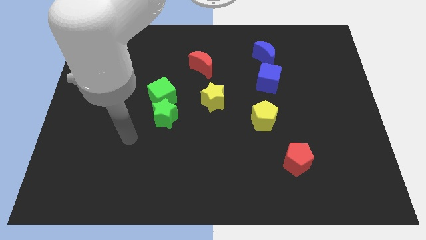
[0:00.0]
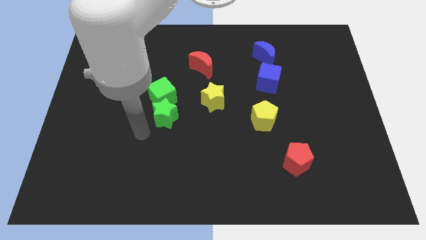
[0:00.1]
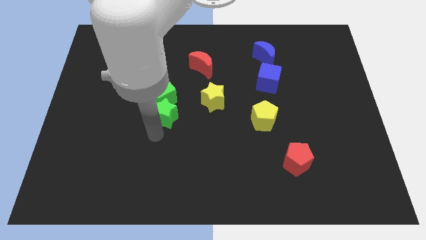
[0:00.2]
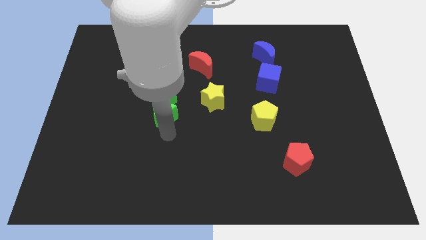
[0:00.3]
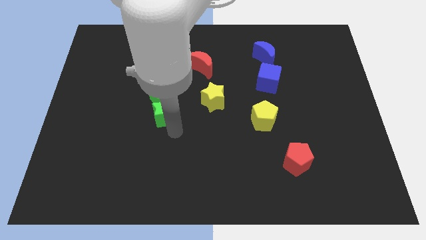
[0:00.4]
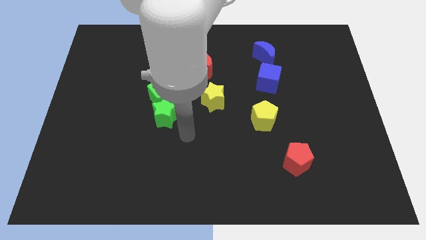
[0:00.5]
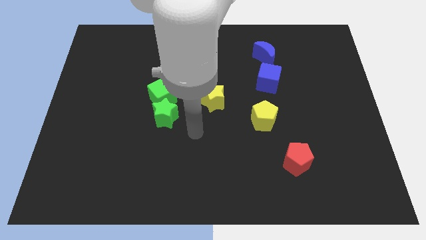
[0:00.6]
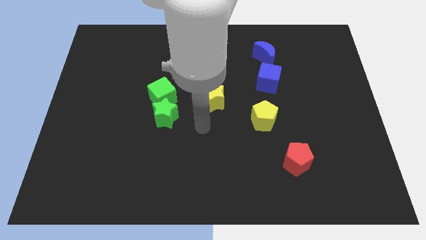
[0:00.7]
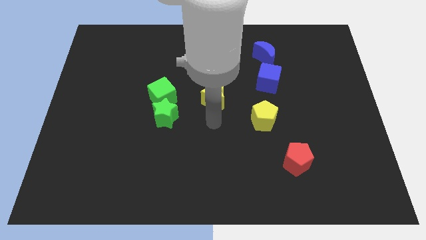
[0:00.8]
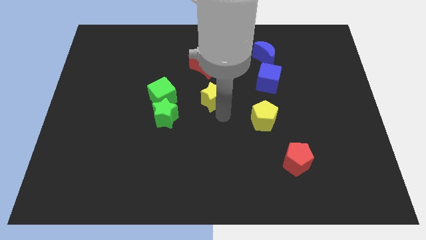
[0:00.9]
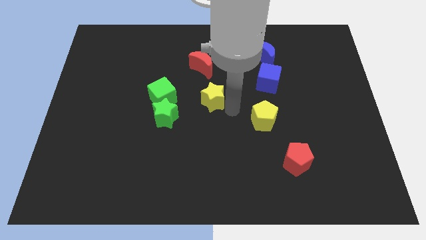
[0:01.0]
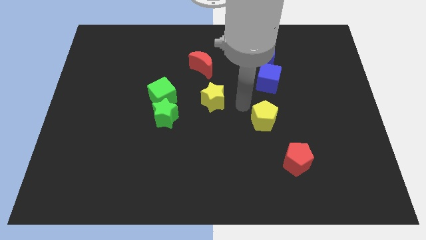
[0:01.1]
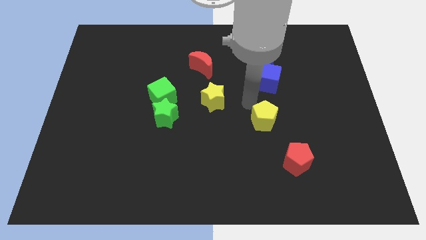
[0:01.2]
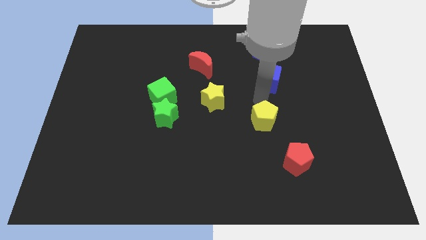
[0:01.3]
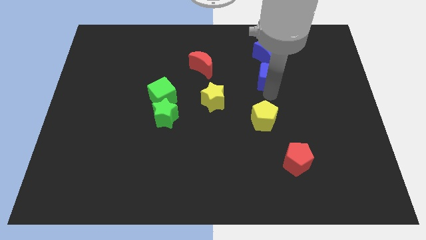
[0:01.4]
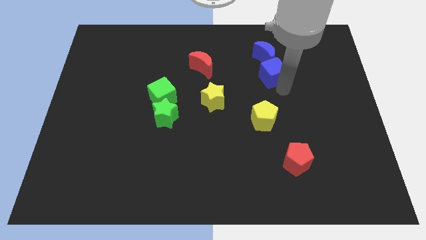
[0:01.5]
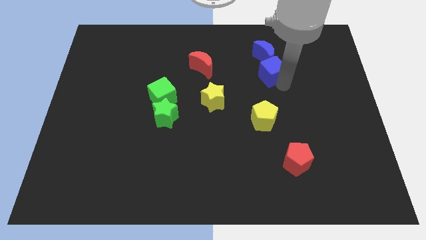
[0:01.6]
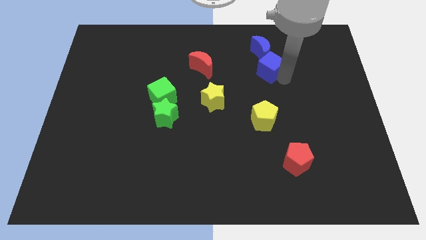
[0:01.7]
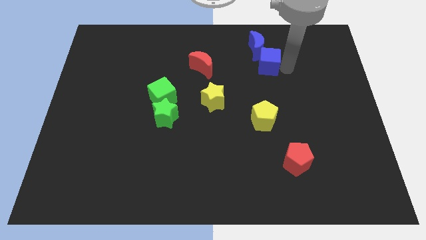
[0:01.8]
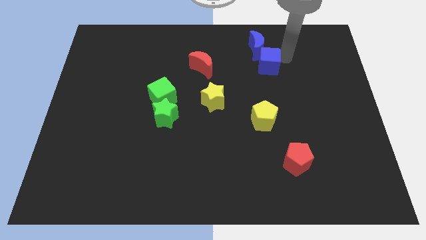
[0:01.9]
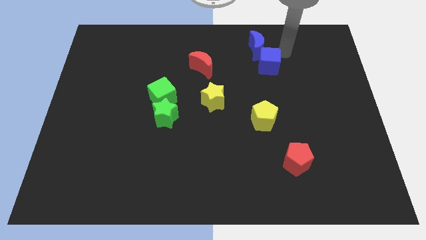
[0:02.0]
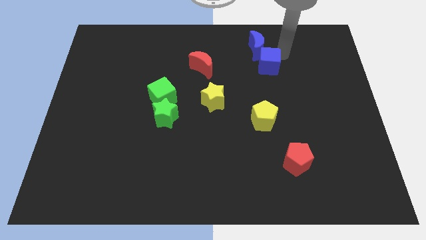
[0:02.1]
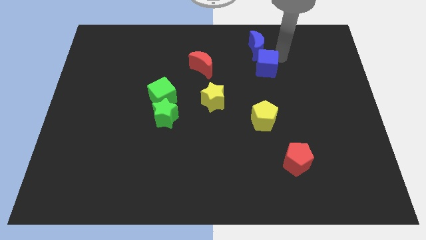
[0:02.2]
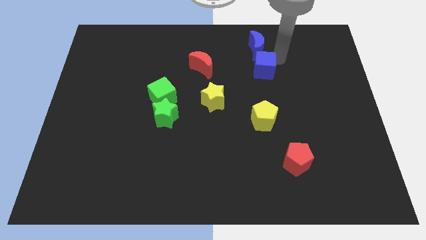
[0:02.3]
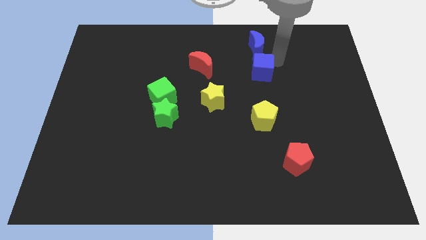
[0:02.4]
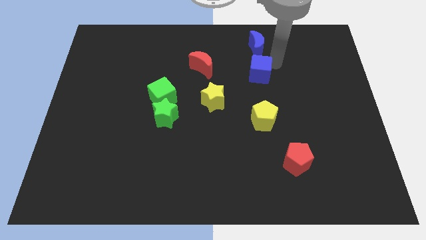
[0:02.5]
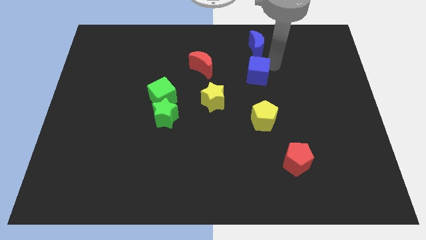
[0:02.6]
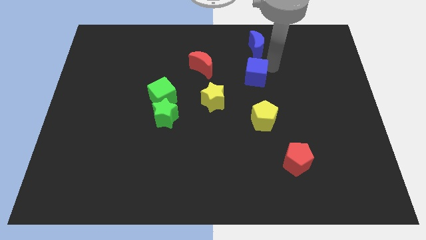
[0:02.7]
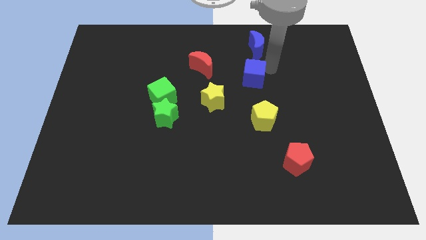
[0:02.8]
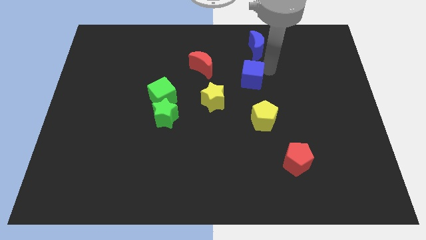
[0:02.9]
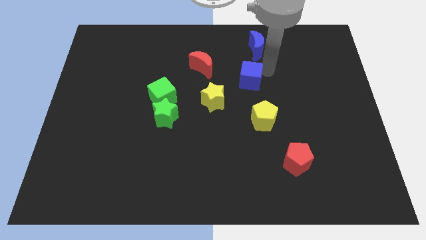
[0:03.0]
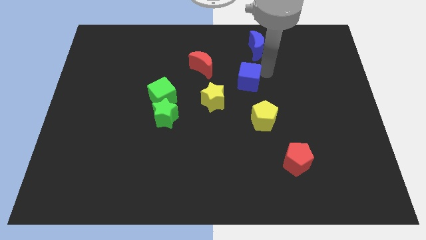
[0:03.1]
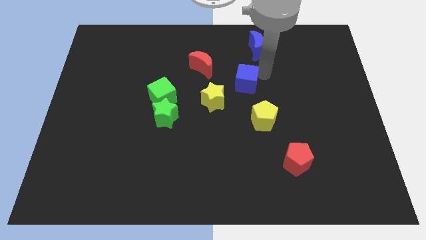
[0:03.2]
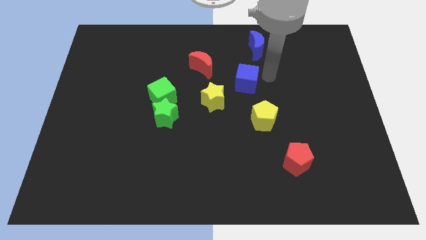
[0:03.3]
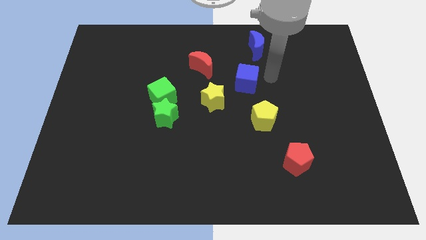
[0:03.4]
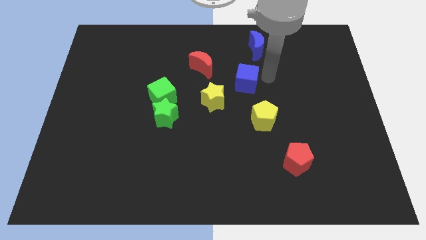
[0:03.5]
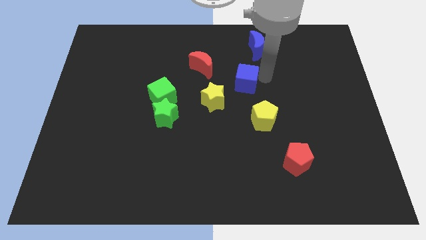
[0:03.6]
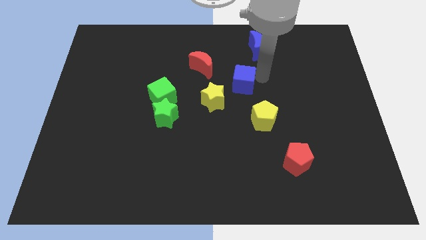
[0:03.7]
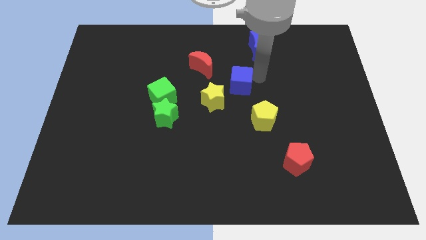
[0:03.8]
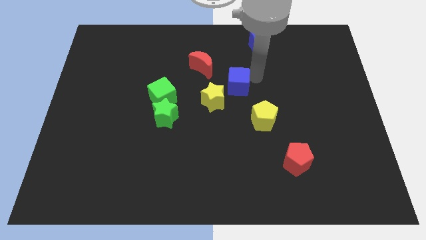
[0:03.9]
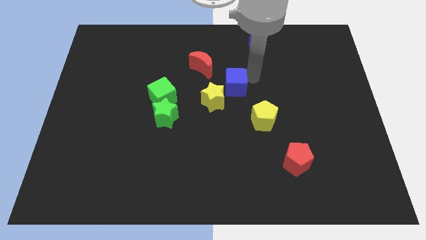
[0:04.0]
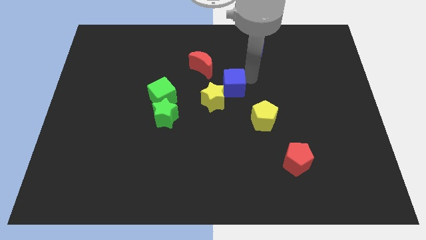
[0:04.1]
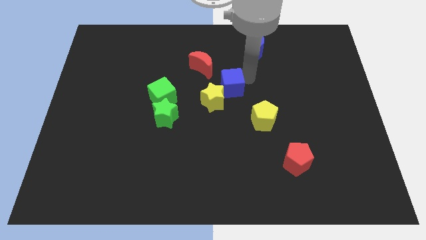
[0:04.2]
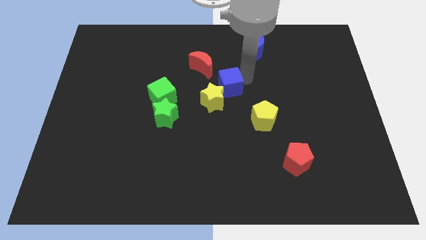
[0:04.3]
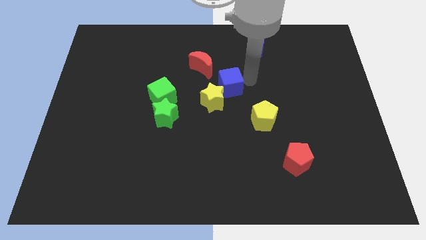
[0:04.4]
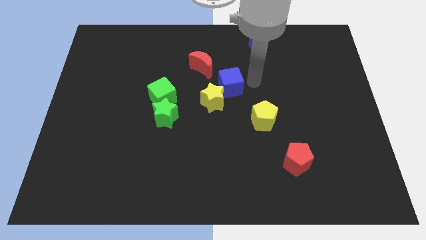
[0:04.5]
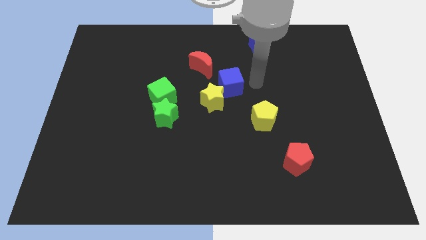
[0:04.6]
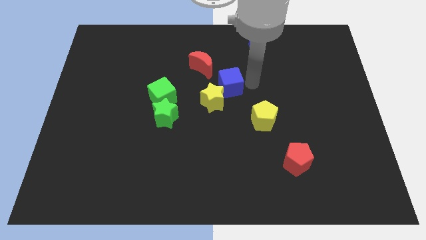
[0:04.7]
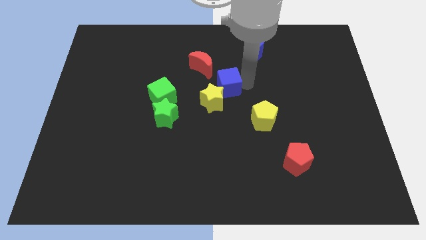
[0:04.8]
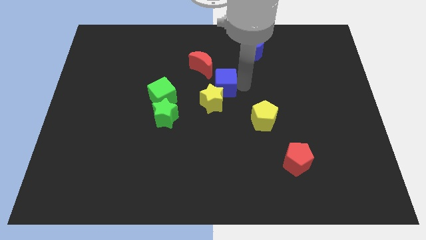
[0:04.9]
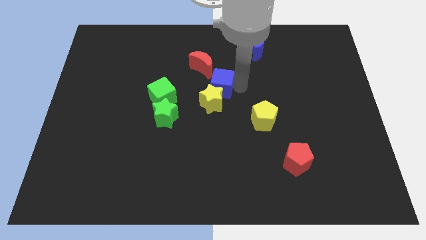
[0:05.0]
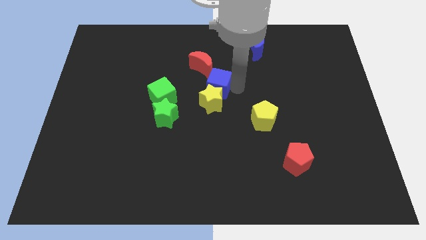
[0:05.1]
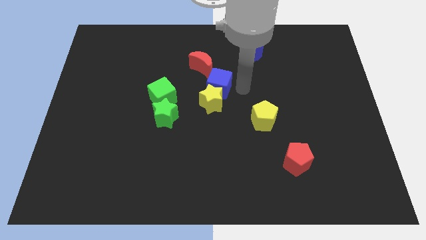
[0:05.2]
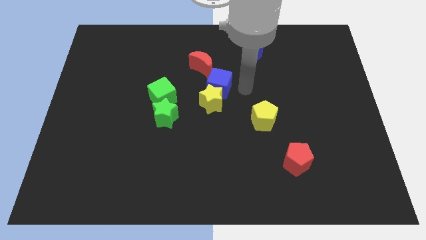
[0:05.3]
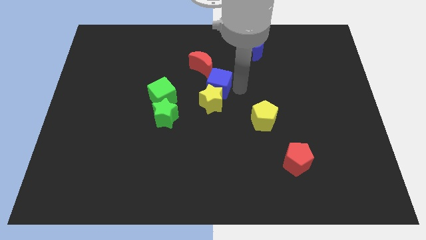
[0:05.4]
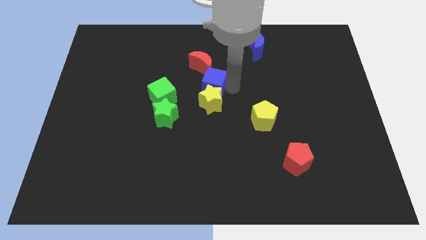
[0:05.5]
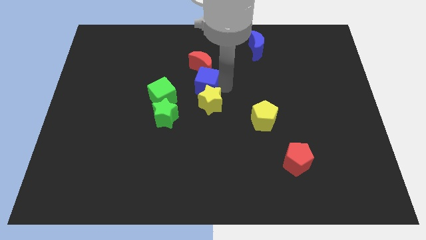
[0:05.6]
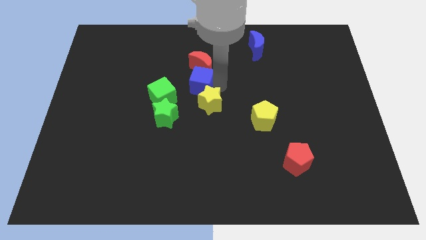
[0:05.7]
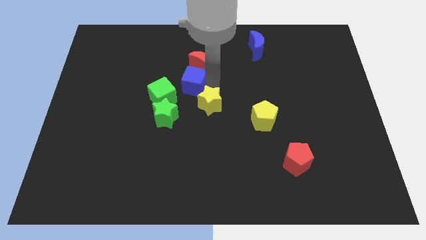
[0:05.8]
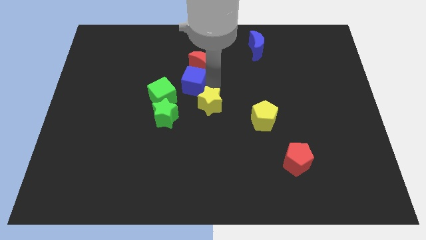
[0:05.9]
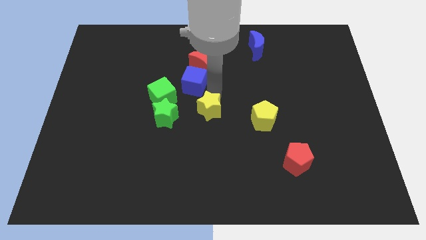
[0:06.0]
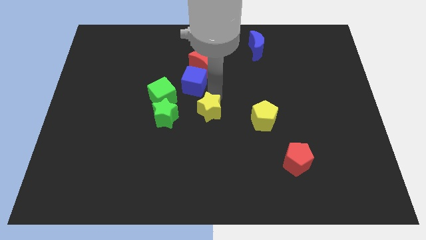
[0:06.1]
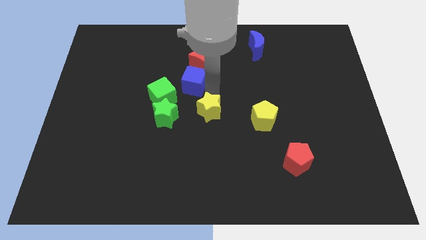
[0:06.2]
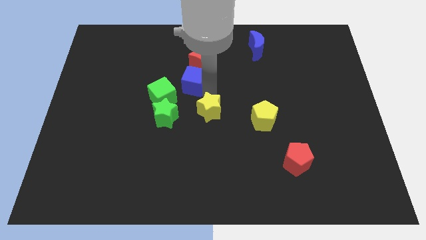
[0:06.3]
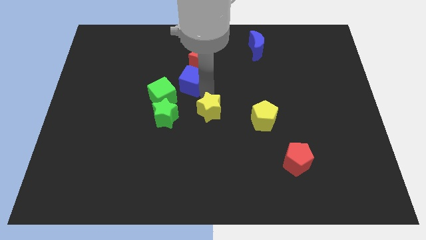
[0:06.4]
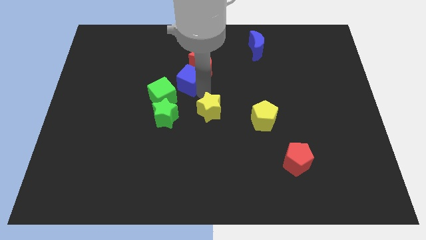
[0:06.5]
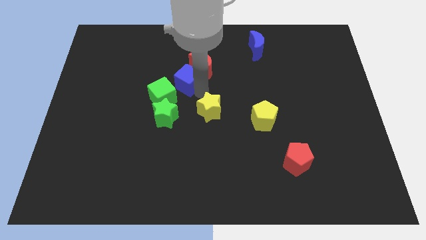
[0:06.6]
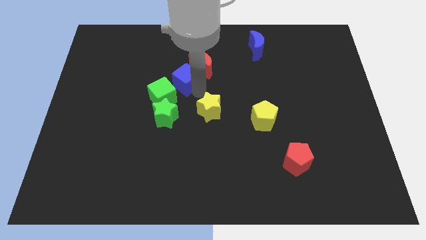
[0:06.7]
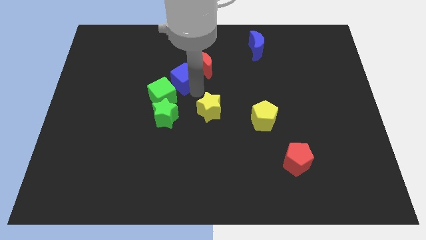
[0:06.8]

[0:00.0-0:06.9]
move the blue cube to the top of the green cube
